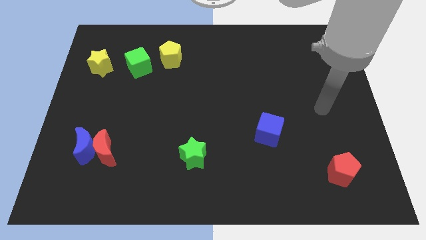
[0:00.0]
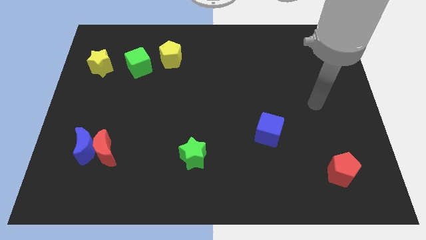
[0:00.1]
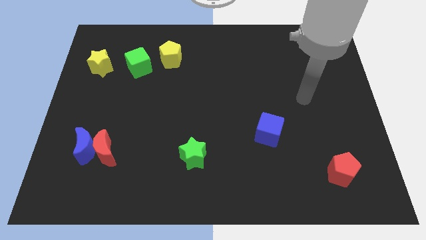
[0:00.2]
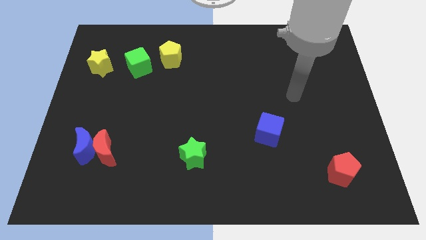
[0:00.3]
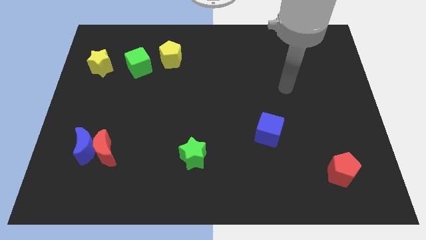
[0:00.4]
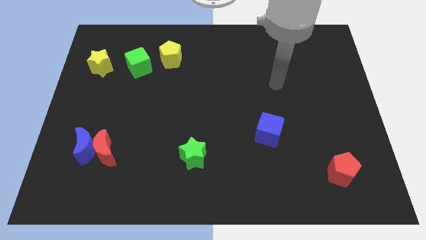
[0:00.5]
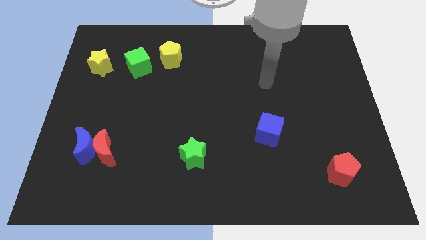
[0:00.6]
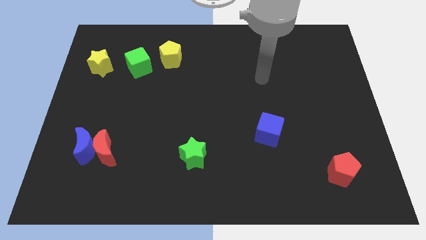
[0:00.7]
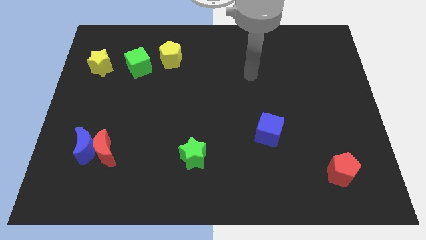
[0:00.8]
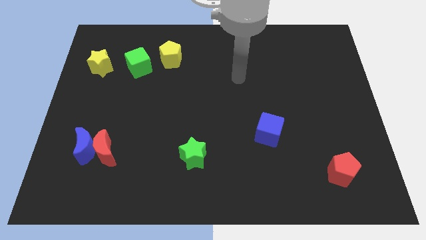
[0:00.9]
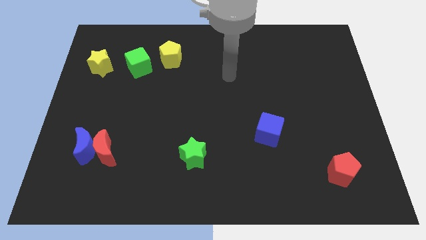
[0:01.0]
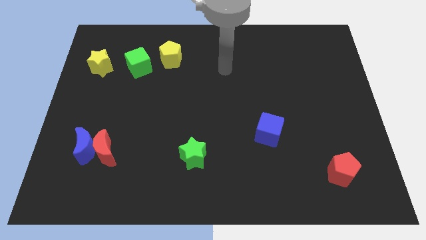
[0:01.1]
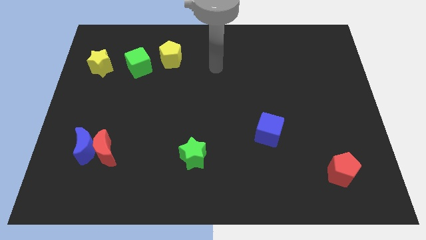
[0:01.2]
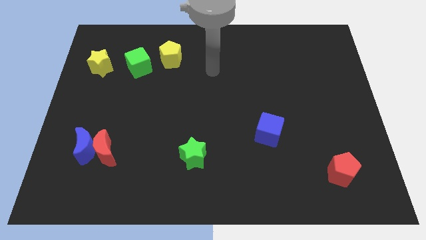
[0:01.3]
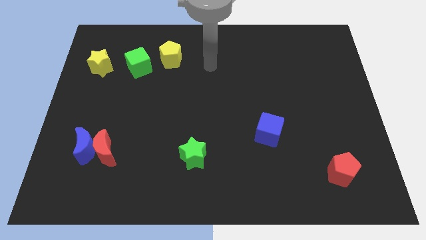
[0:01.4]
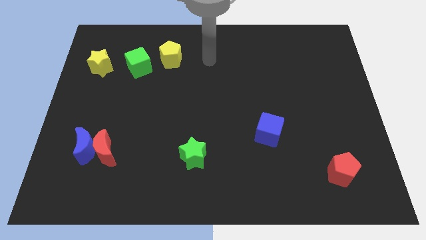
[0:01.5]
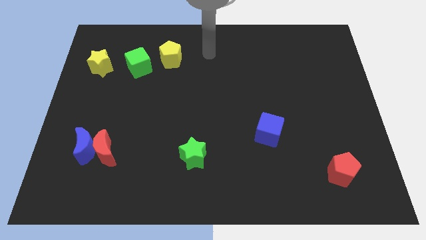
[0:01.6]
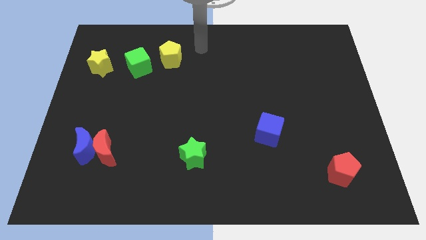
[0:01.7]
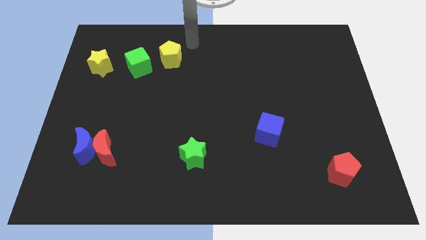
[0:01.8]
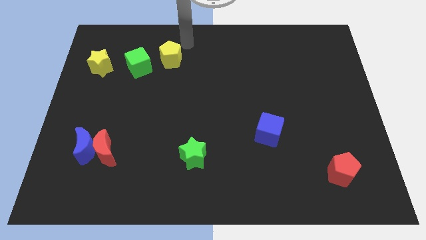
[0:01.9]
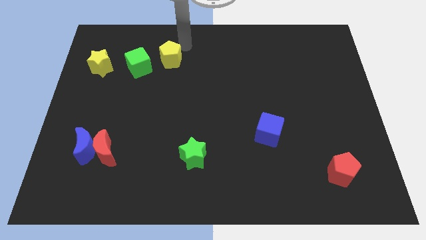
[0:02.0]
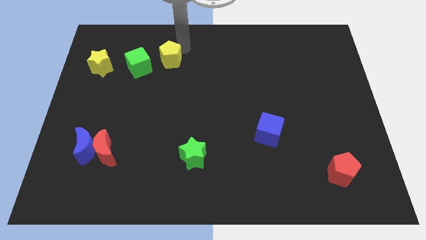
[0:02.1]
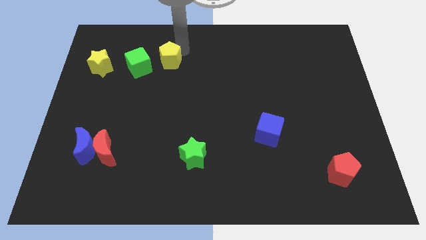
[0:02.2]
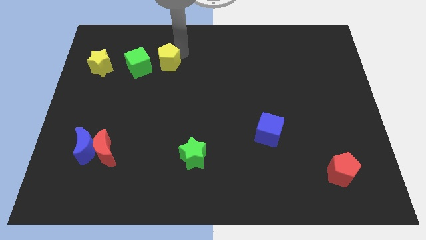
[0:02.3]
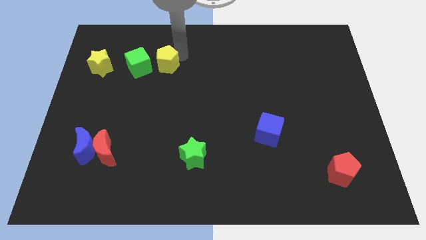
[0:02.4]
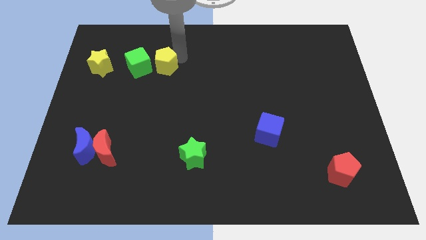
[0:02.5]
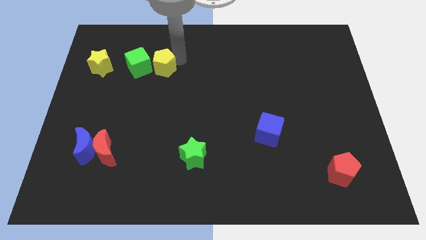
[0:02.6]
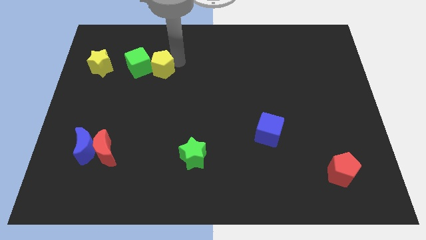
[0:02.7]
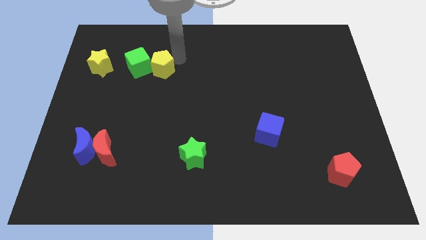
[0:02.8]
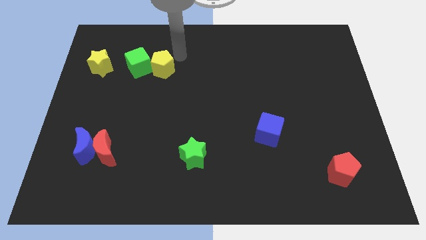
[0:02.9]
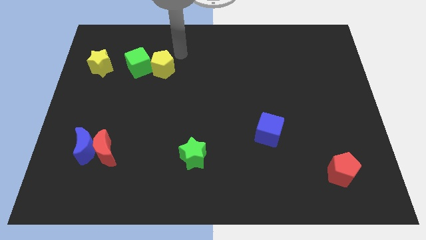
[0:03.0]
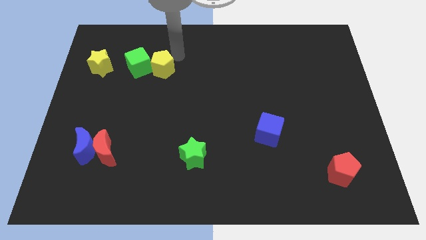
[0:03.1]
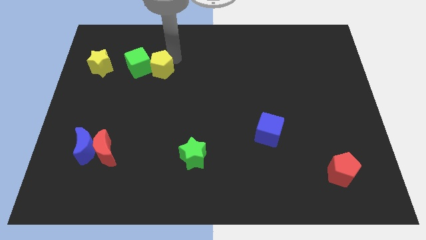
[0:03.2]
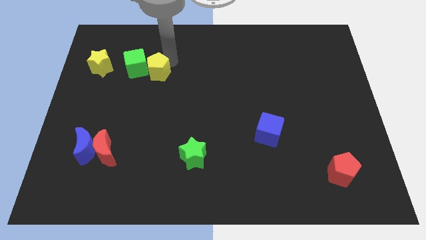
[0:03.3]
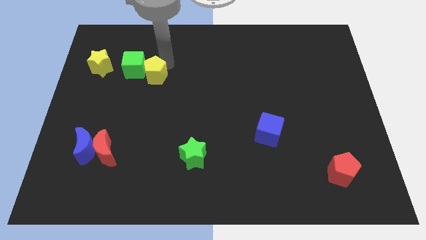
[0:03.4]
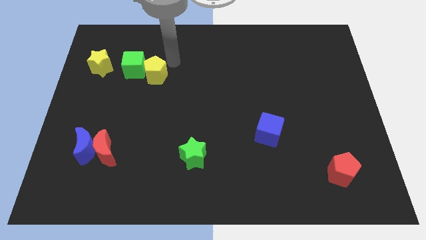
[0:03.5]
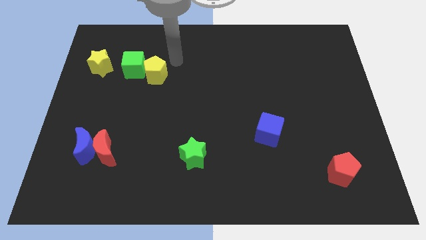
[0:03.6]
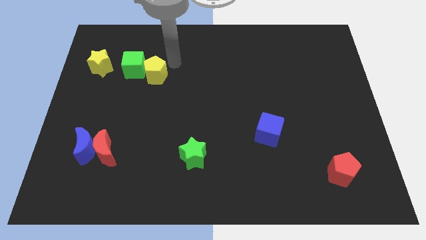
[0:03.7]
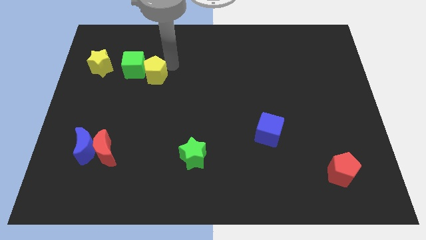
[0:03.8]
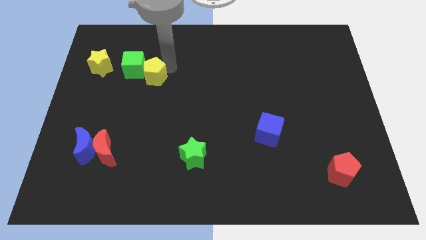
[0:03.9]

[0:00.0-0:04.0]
slide the yellow pentagon down and to the left slightly

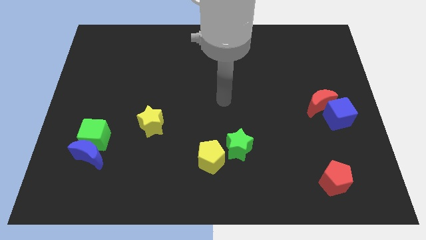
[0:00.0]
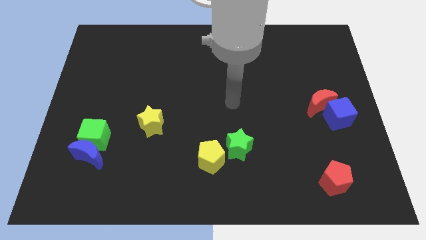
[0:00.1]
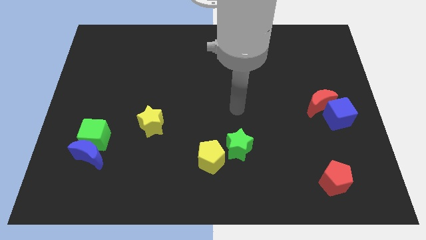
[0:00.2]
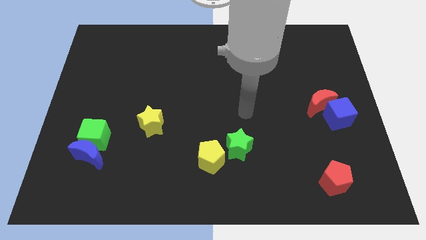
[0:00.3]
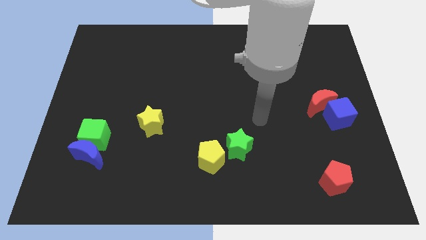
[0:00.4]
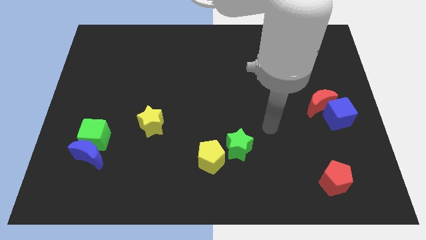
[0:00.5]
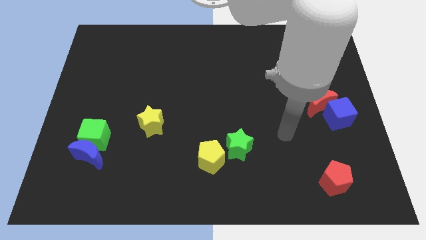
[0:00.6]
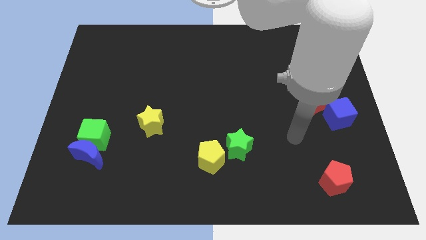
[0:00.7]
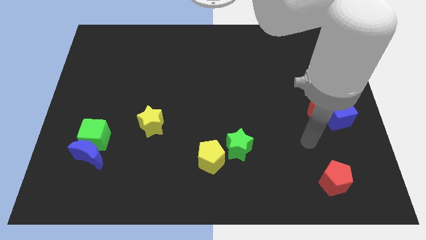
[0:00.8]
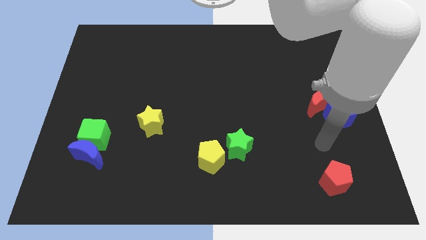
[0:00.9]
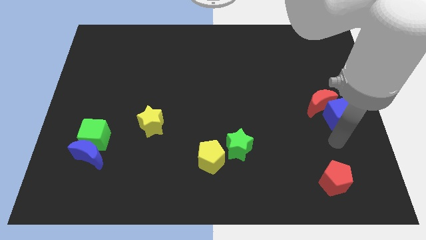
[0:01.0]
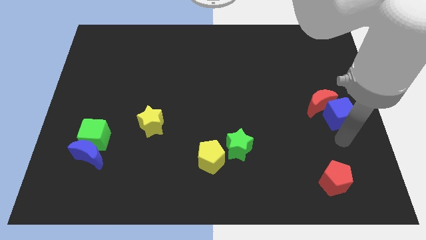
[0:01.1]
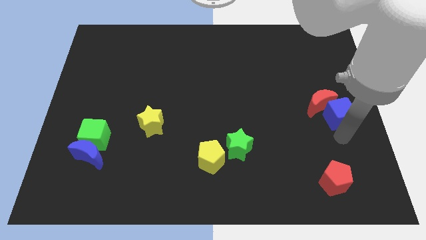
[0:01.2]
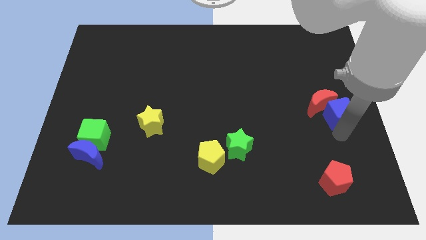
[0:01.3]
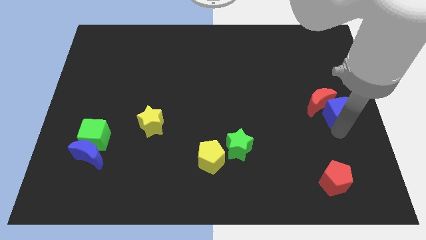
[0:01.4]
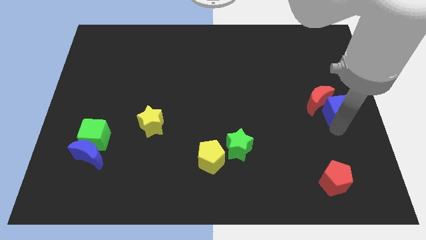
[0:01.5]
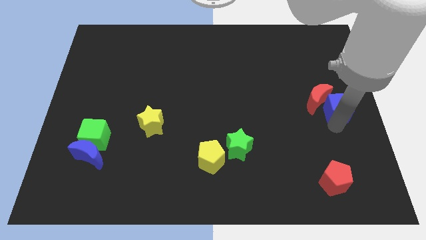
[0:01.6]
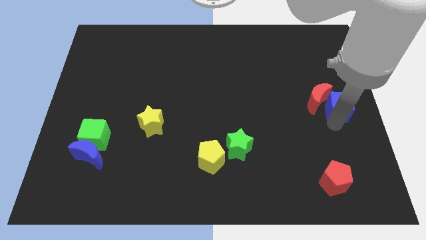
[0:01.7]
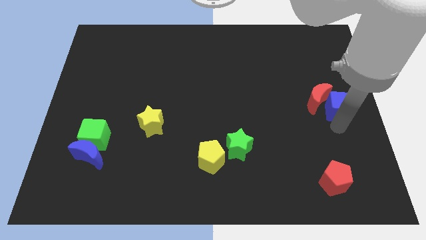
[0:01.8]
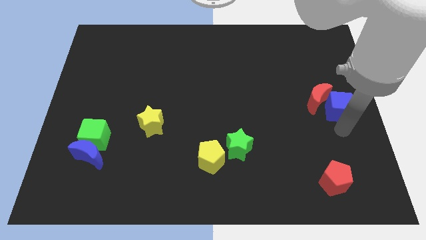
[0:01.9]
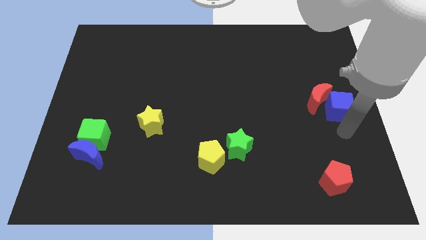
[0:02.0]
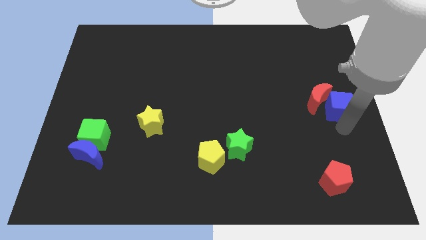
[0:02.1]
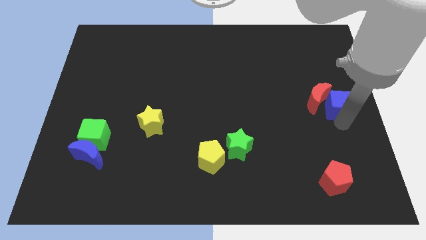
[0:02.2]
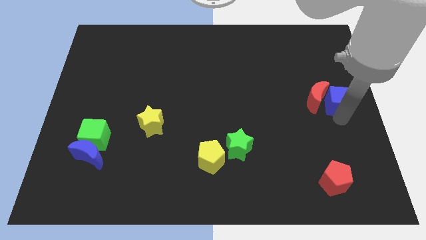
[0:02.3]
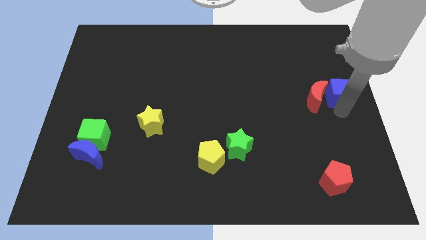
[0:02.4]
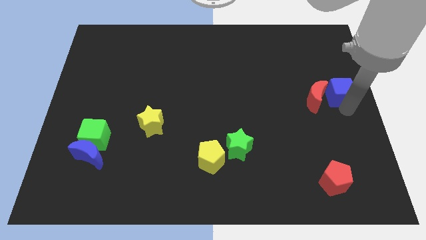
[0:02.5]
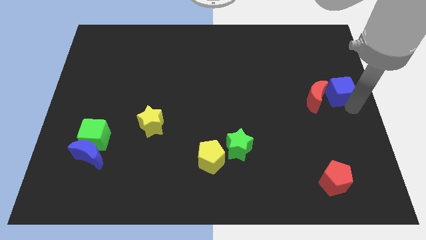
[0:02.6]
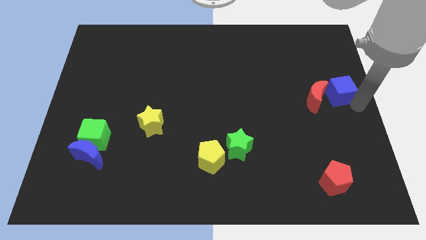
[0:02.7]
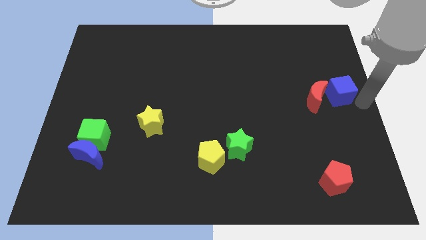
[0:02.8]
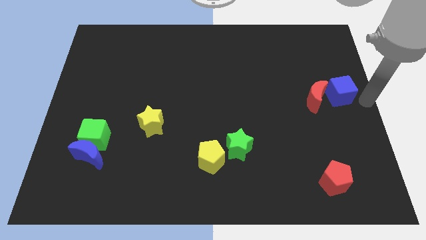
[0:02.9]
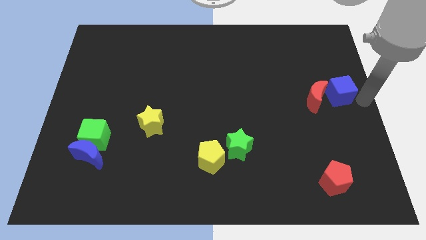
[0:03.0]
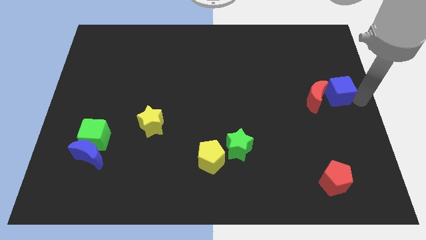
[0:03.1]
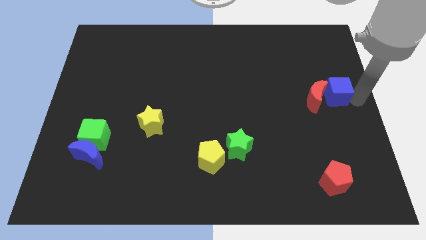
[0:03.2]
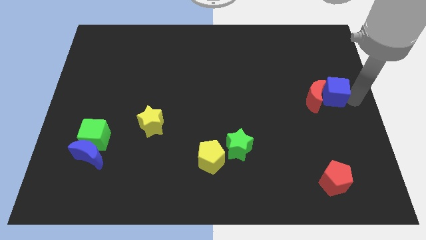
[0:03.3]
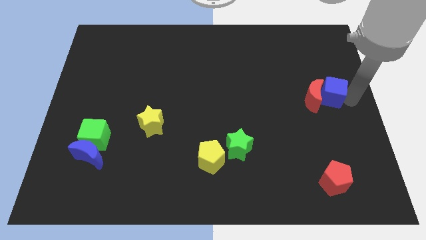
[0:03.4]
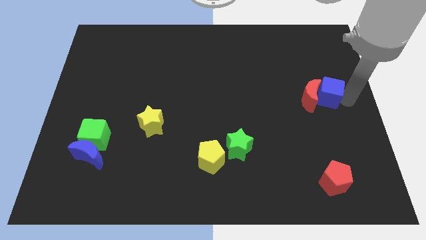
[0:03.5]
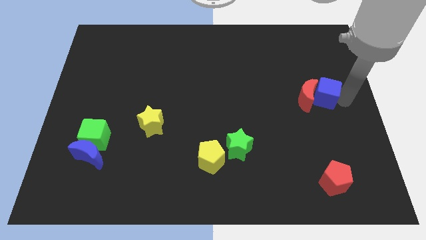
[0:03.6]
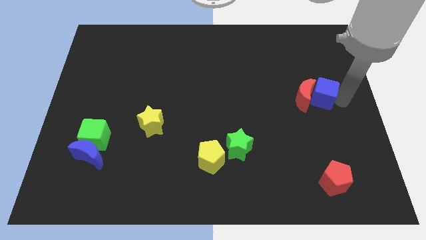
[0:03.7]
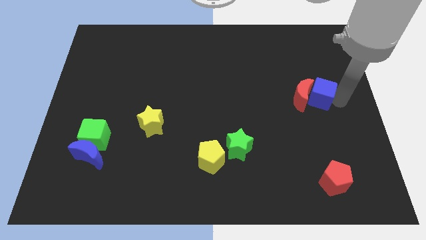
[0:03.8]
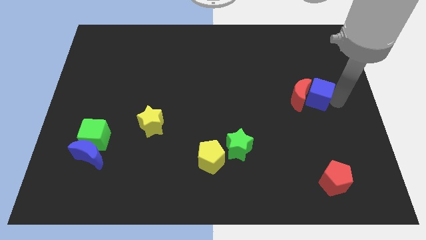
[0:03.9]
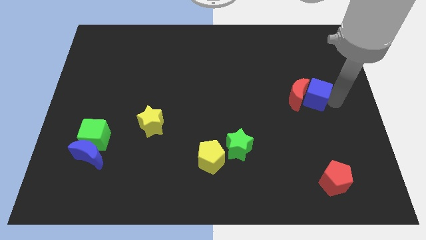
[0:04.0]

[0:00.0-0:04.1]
slide the blue cube a bit upwards and left diagonally
